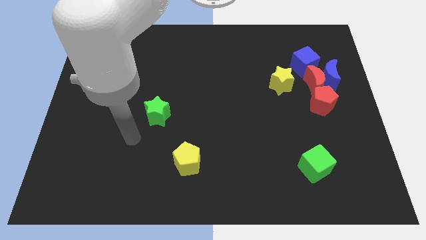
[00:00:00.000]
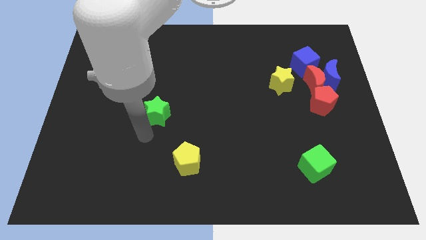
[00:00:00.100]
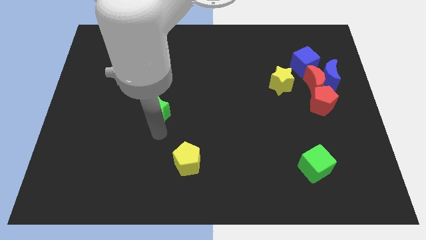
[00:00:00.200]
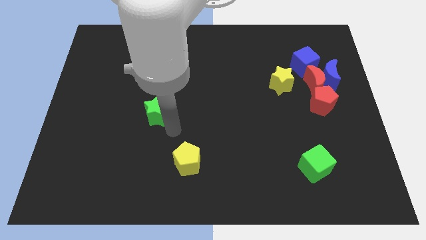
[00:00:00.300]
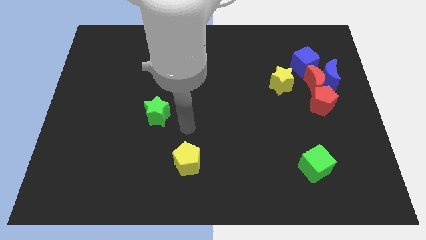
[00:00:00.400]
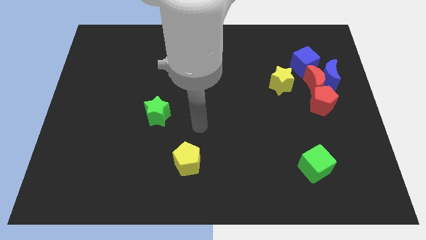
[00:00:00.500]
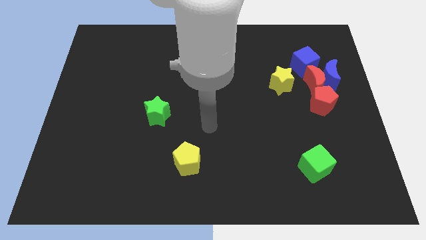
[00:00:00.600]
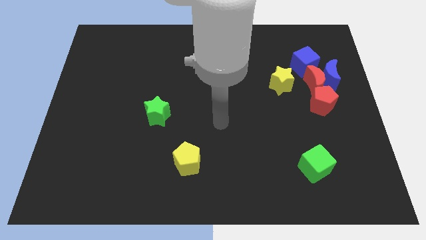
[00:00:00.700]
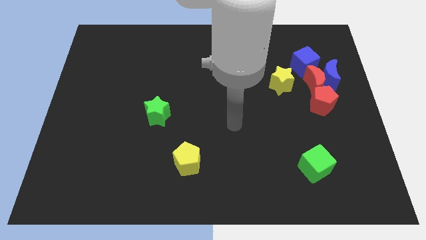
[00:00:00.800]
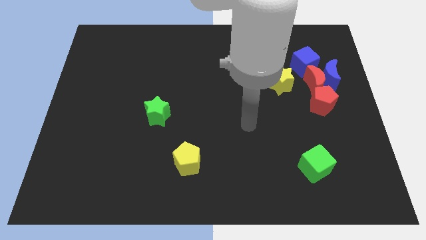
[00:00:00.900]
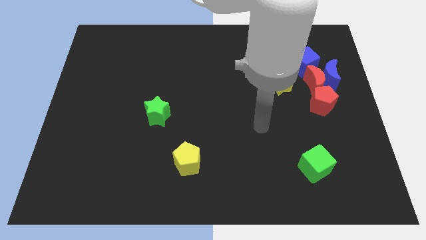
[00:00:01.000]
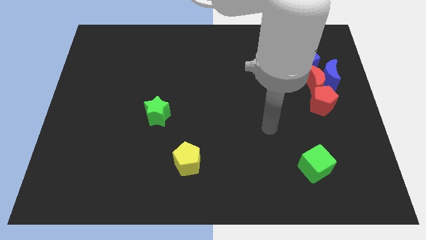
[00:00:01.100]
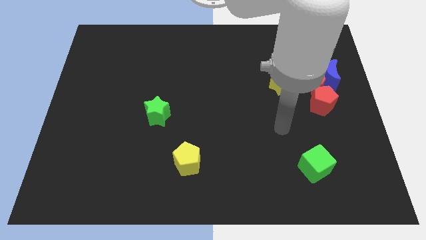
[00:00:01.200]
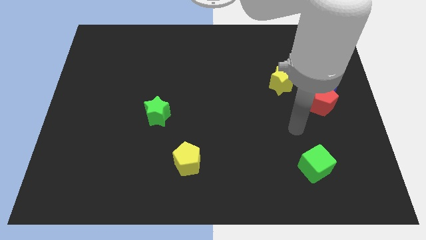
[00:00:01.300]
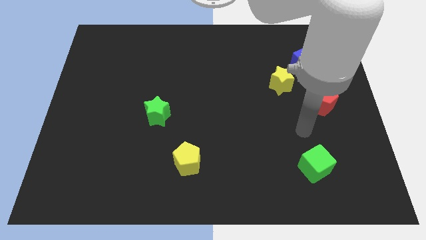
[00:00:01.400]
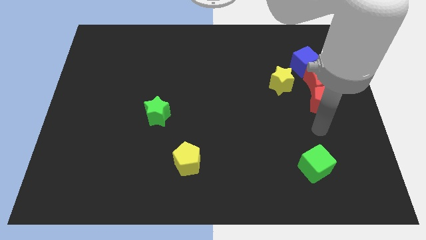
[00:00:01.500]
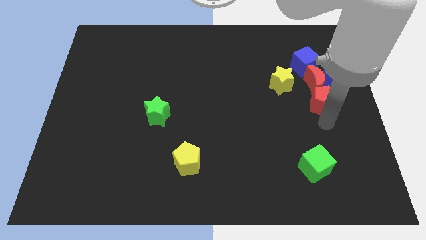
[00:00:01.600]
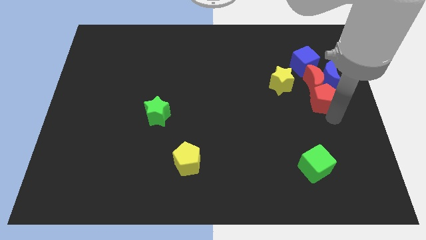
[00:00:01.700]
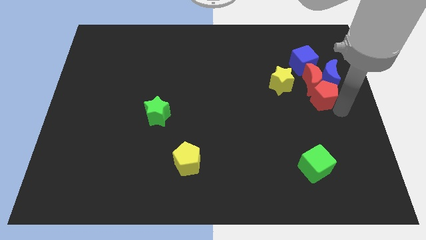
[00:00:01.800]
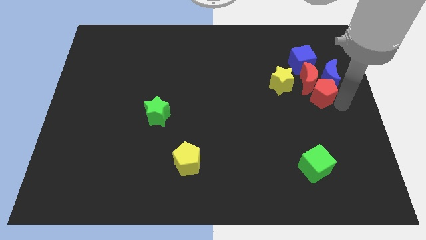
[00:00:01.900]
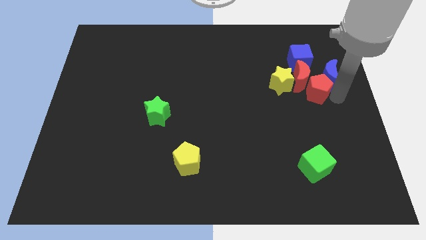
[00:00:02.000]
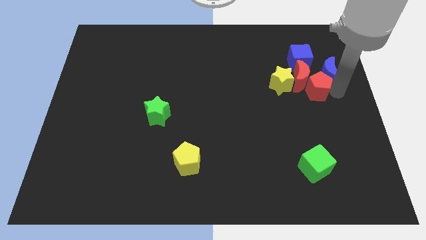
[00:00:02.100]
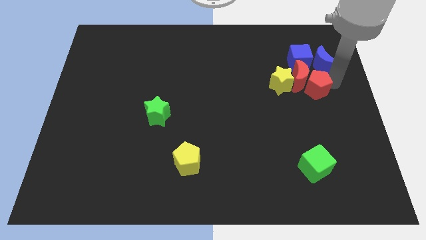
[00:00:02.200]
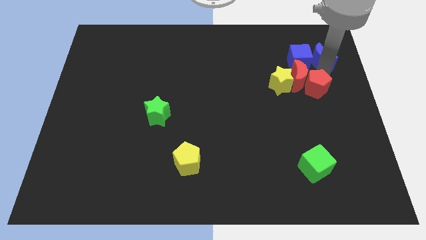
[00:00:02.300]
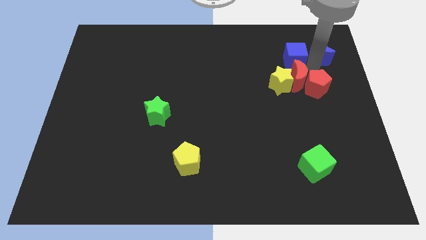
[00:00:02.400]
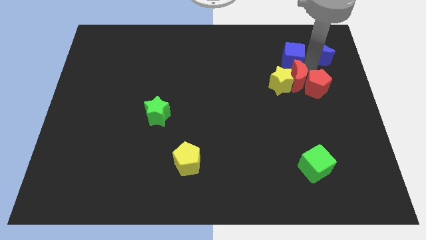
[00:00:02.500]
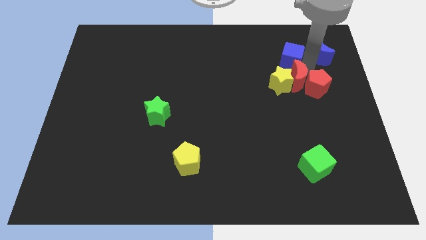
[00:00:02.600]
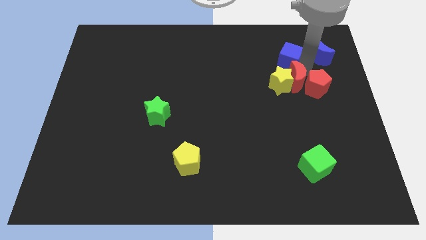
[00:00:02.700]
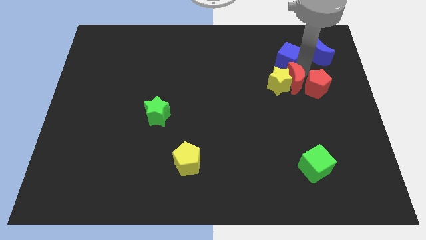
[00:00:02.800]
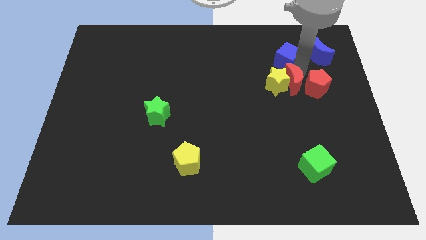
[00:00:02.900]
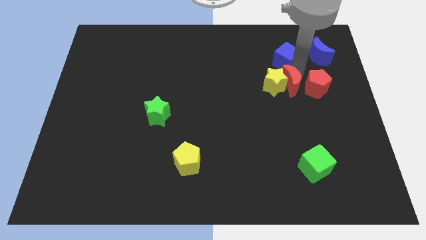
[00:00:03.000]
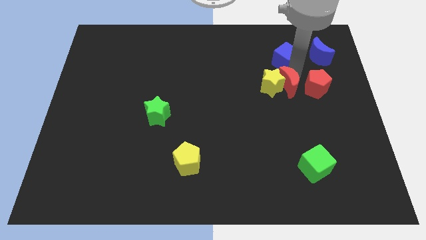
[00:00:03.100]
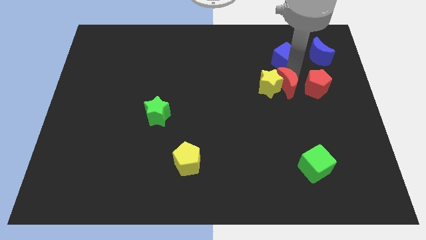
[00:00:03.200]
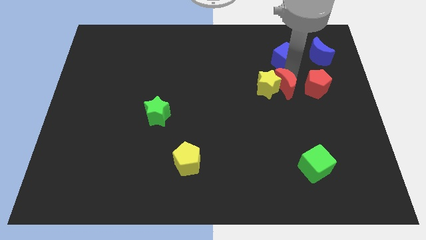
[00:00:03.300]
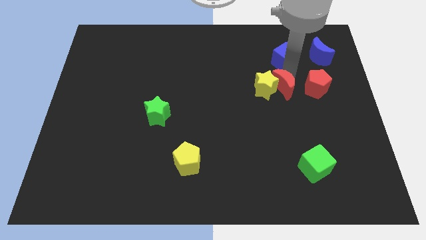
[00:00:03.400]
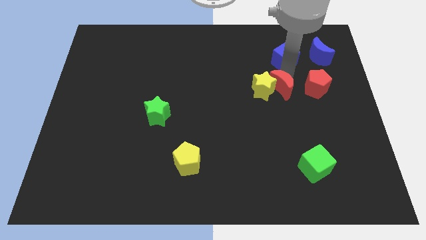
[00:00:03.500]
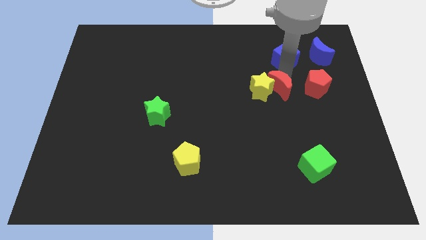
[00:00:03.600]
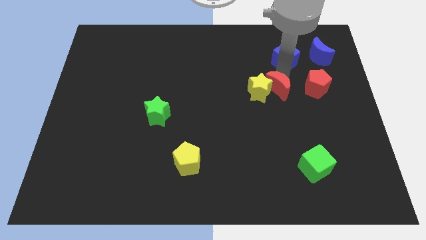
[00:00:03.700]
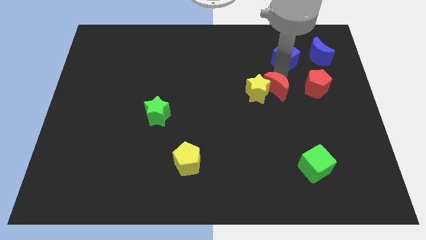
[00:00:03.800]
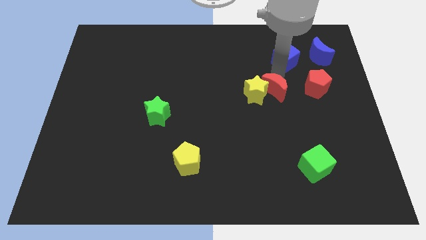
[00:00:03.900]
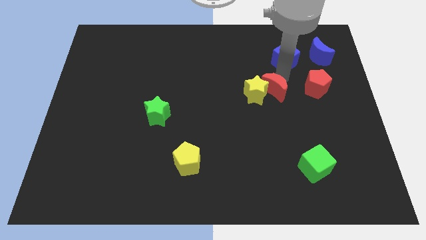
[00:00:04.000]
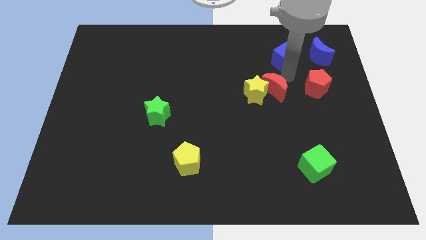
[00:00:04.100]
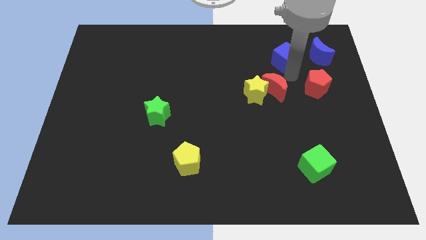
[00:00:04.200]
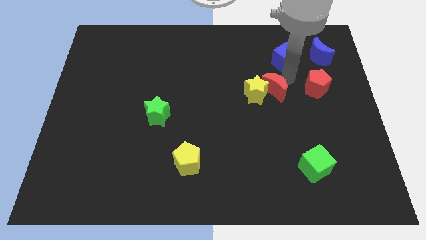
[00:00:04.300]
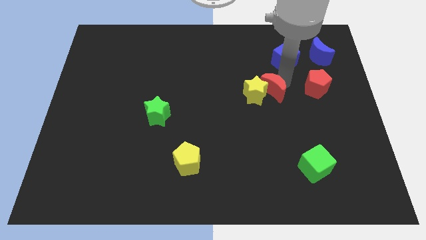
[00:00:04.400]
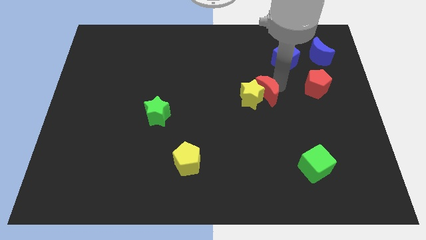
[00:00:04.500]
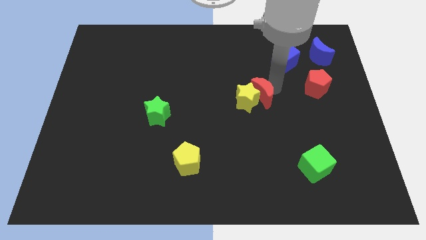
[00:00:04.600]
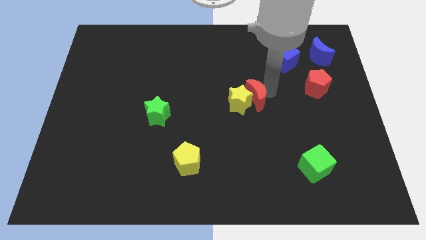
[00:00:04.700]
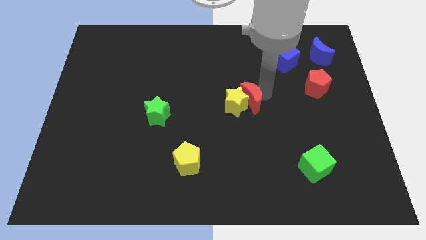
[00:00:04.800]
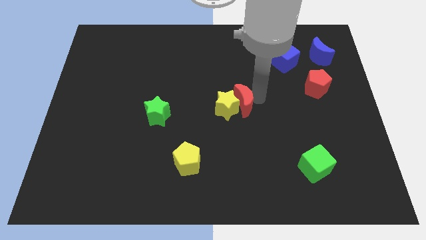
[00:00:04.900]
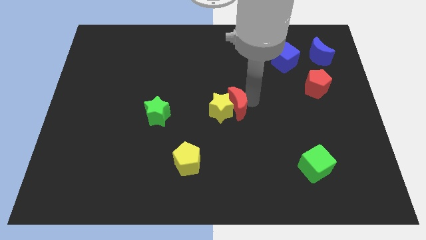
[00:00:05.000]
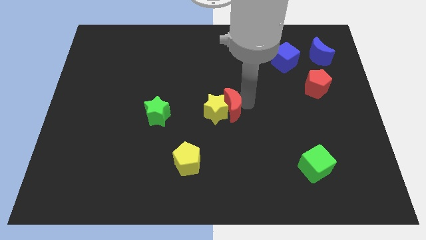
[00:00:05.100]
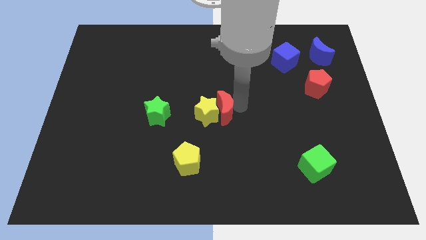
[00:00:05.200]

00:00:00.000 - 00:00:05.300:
put the red moon to the right side of the green star

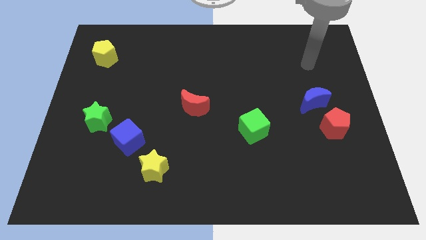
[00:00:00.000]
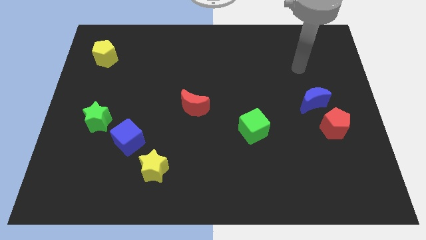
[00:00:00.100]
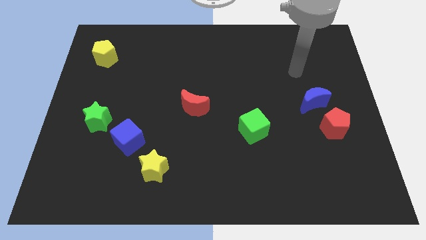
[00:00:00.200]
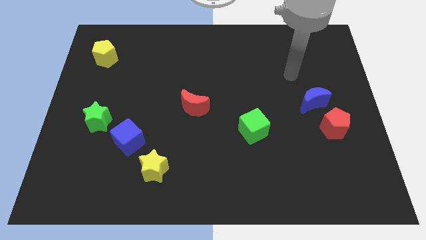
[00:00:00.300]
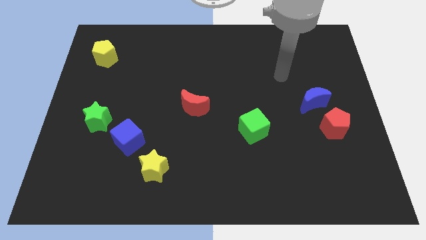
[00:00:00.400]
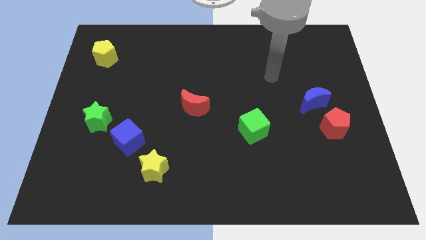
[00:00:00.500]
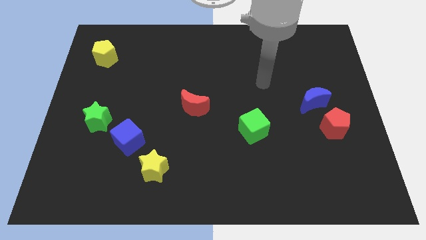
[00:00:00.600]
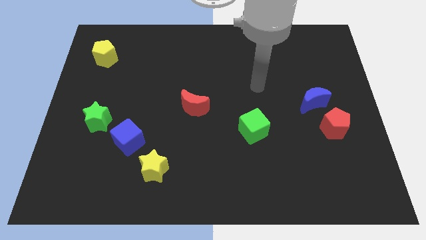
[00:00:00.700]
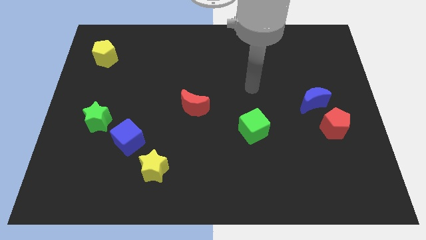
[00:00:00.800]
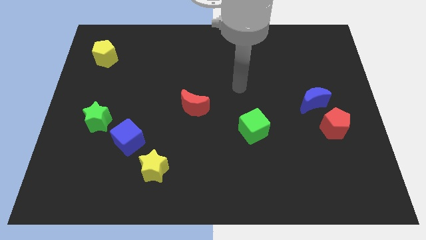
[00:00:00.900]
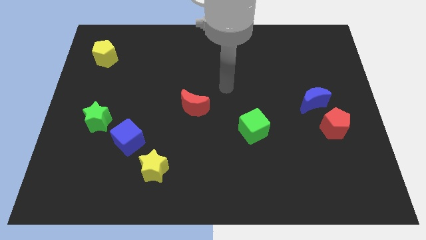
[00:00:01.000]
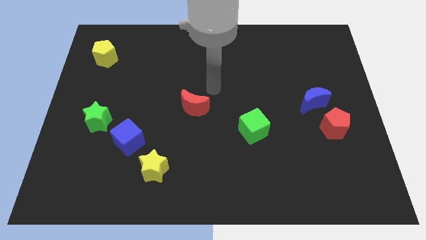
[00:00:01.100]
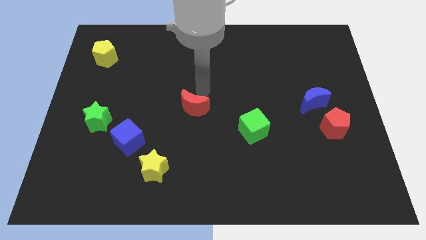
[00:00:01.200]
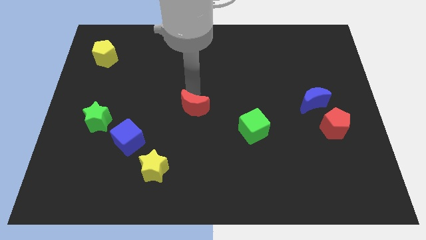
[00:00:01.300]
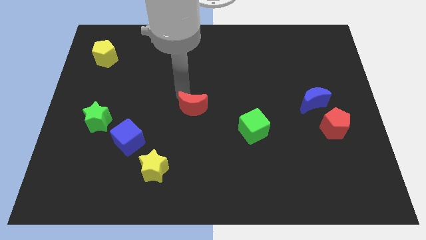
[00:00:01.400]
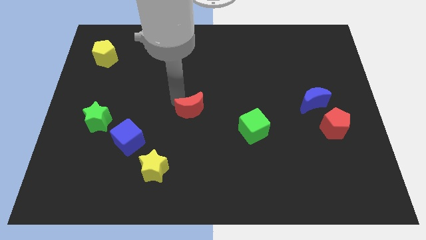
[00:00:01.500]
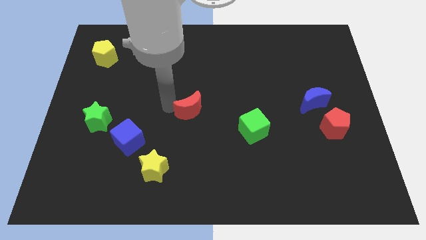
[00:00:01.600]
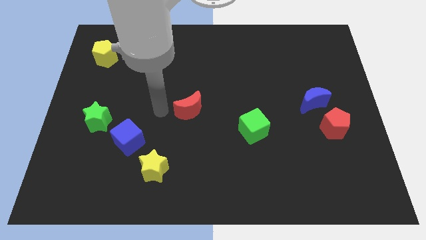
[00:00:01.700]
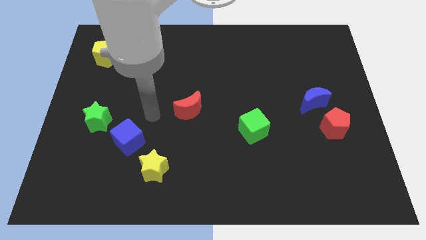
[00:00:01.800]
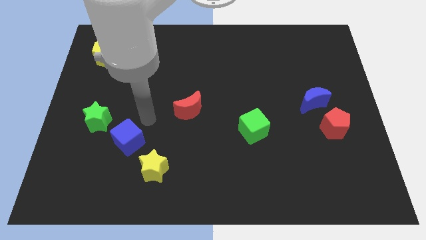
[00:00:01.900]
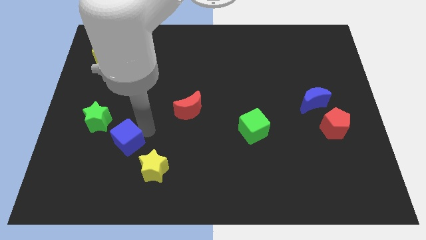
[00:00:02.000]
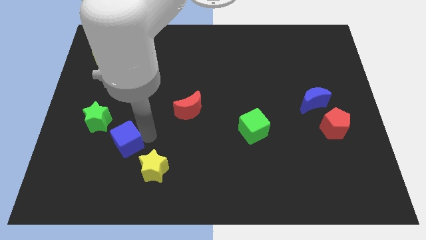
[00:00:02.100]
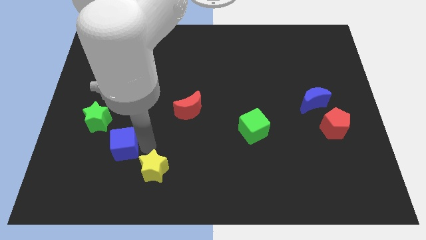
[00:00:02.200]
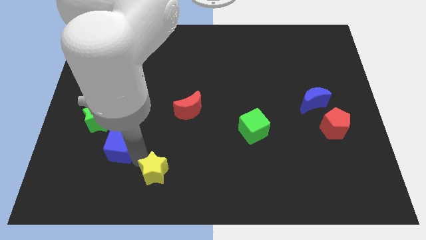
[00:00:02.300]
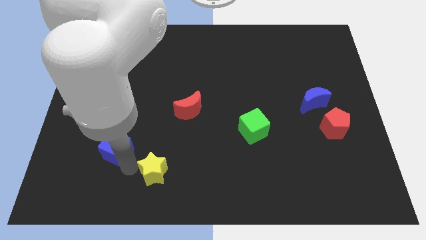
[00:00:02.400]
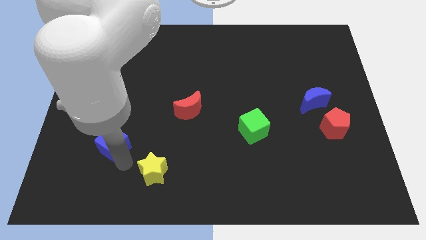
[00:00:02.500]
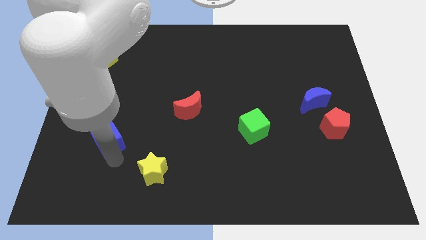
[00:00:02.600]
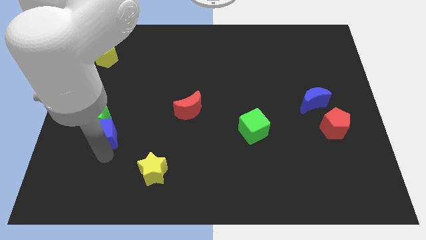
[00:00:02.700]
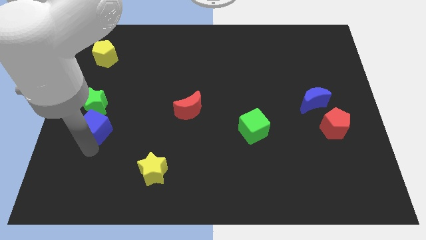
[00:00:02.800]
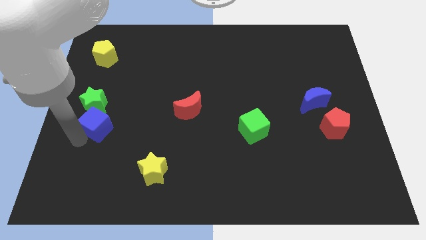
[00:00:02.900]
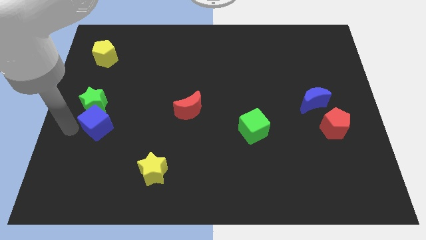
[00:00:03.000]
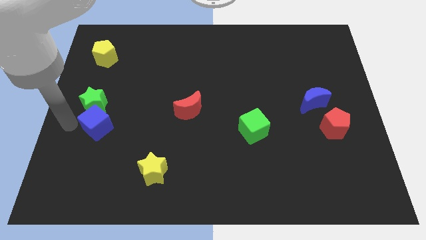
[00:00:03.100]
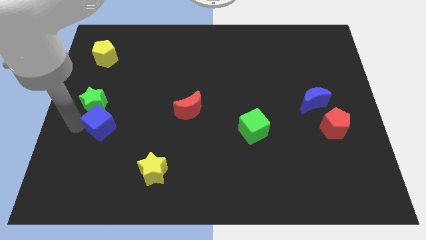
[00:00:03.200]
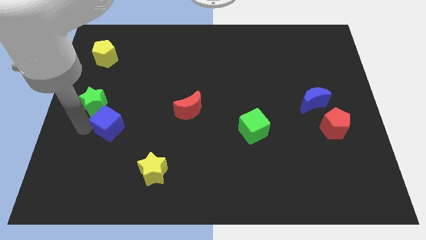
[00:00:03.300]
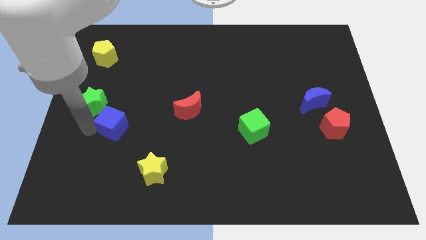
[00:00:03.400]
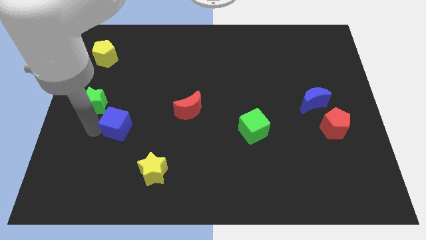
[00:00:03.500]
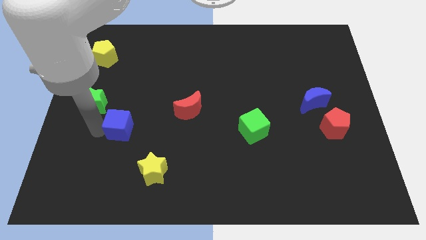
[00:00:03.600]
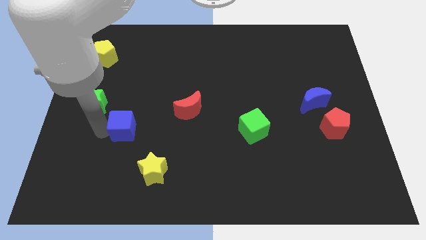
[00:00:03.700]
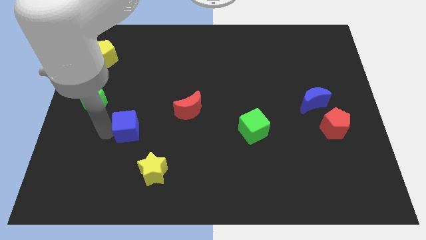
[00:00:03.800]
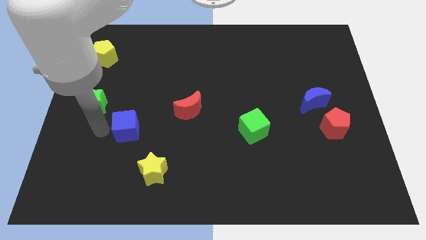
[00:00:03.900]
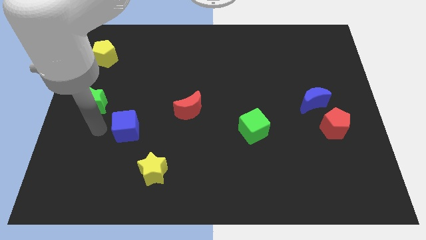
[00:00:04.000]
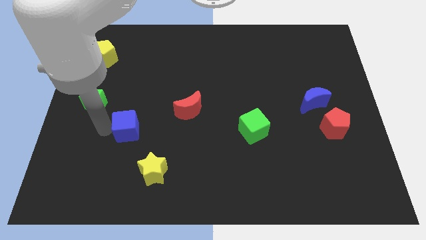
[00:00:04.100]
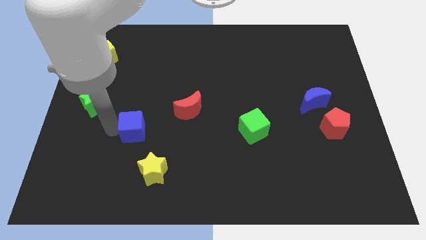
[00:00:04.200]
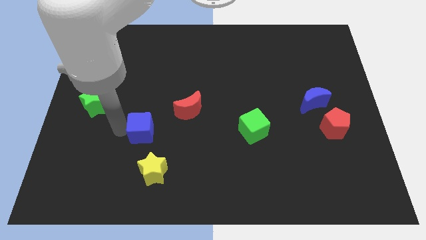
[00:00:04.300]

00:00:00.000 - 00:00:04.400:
push the blue cube to the top of the yellow star
